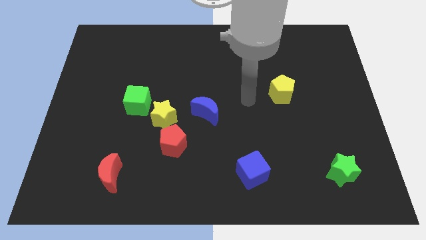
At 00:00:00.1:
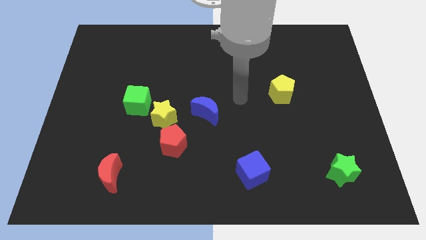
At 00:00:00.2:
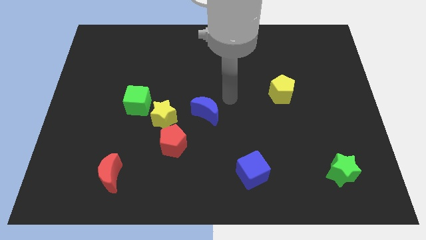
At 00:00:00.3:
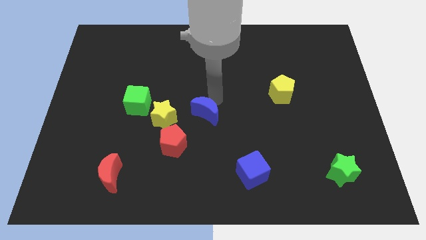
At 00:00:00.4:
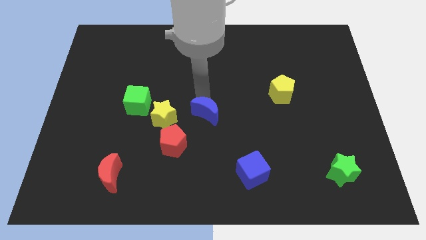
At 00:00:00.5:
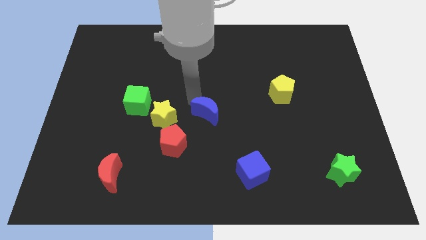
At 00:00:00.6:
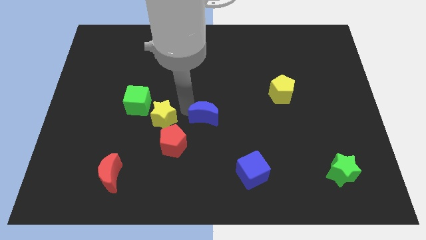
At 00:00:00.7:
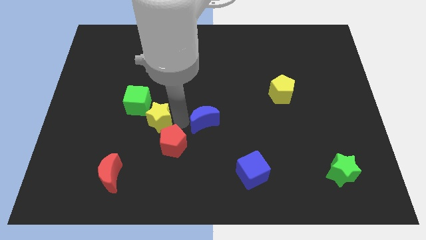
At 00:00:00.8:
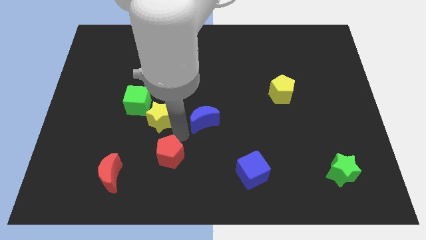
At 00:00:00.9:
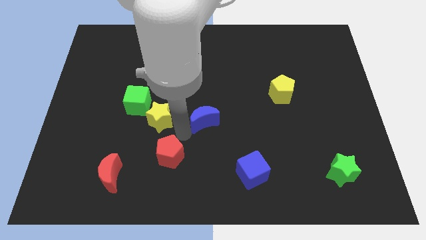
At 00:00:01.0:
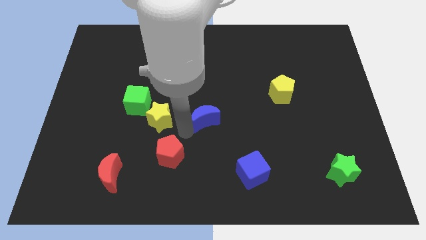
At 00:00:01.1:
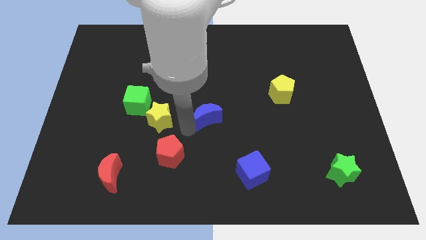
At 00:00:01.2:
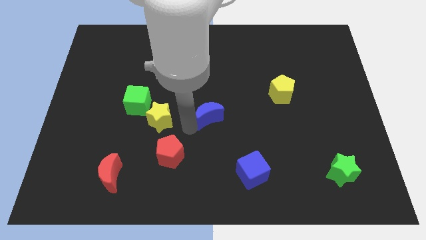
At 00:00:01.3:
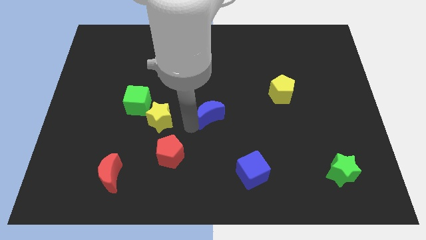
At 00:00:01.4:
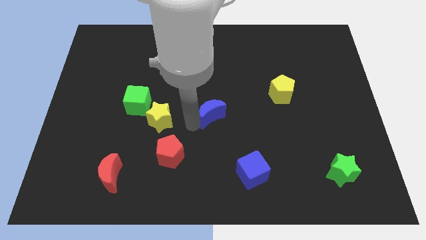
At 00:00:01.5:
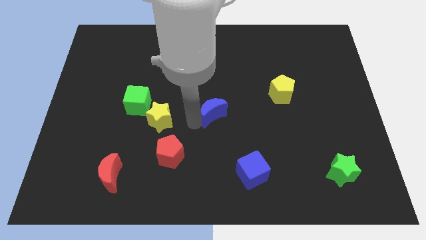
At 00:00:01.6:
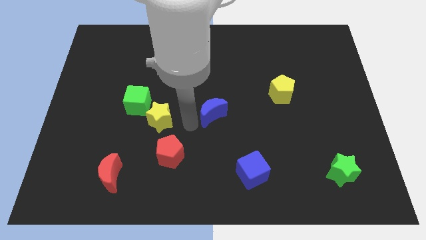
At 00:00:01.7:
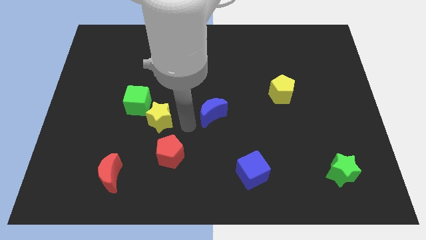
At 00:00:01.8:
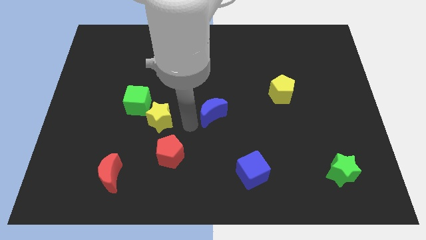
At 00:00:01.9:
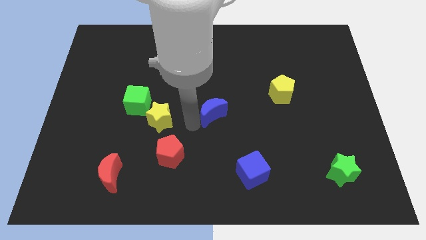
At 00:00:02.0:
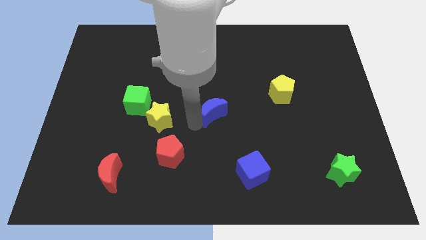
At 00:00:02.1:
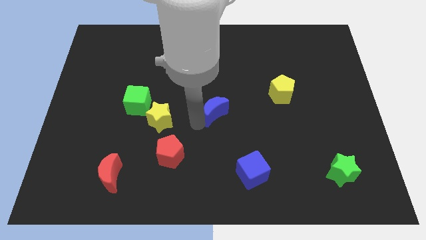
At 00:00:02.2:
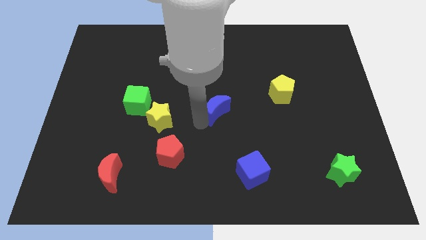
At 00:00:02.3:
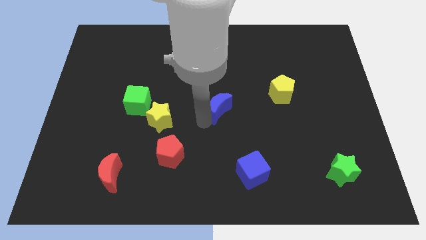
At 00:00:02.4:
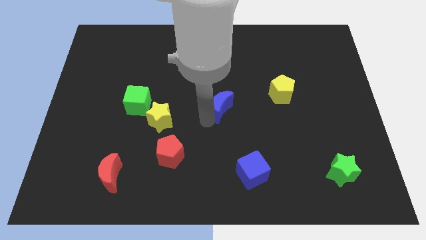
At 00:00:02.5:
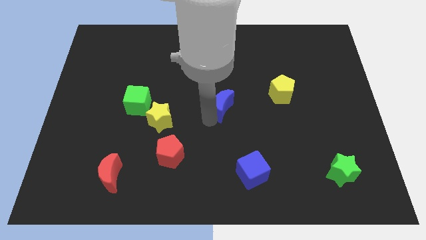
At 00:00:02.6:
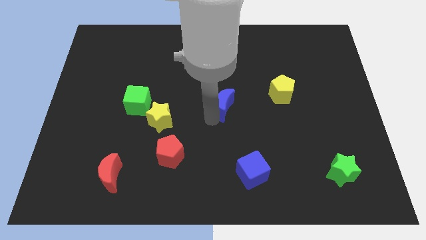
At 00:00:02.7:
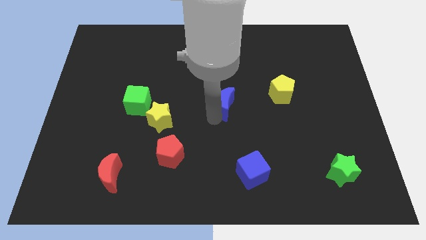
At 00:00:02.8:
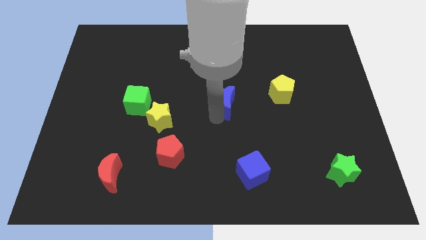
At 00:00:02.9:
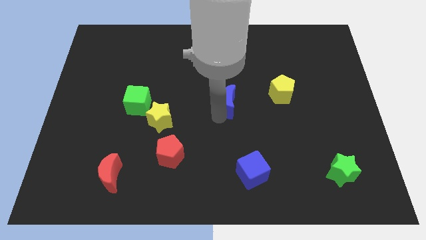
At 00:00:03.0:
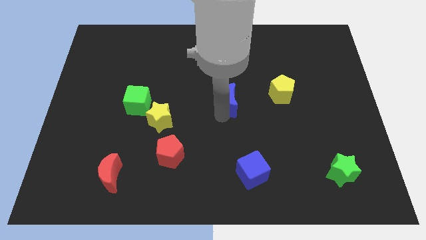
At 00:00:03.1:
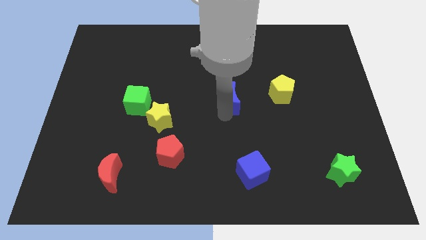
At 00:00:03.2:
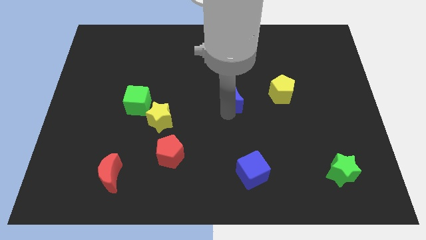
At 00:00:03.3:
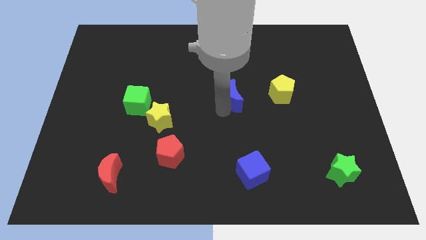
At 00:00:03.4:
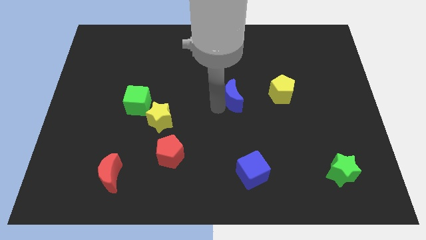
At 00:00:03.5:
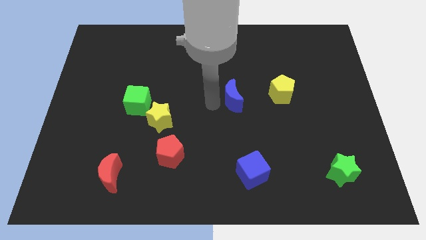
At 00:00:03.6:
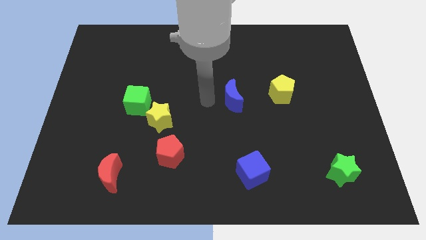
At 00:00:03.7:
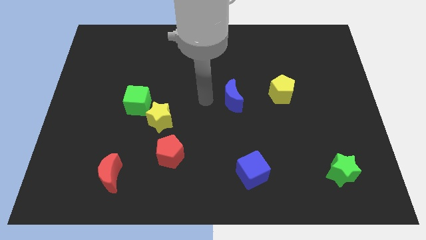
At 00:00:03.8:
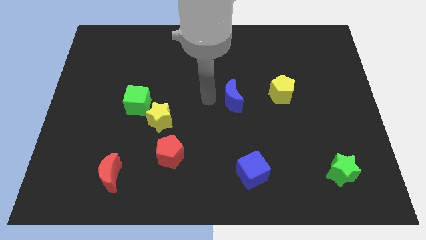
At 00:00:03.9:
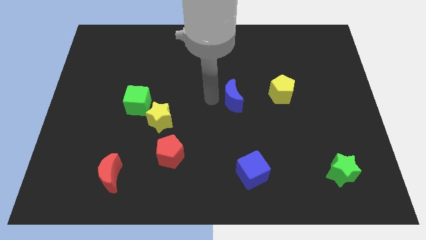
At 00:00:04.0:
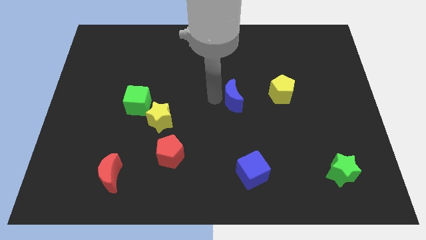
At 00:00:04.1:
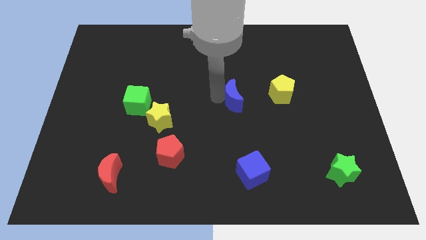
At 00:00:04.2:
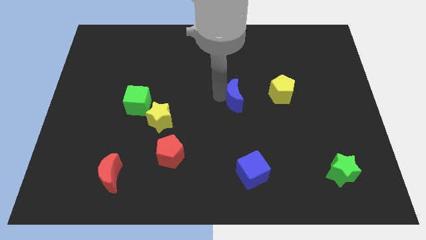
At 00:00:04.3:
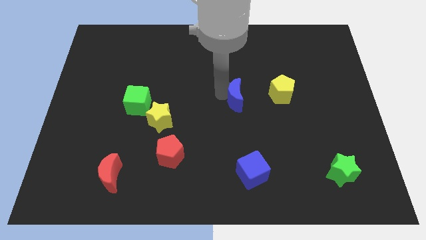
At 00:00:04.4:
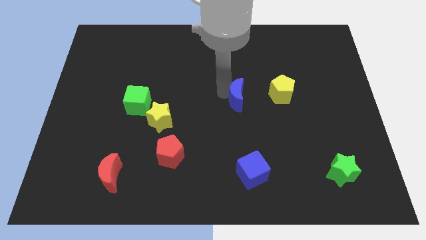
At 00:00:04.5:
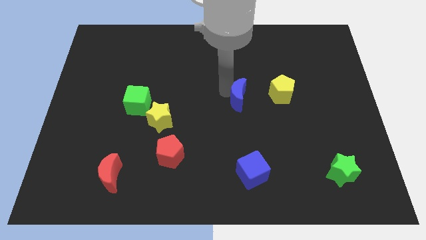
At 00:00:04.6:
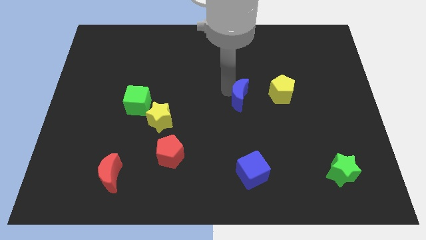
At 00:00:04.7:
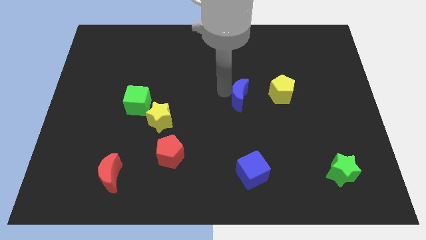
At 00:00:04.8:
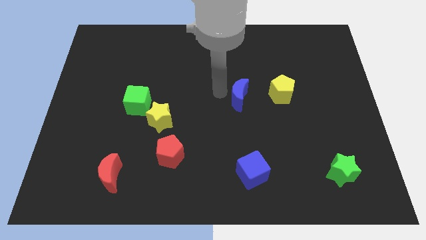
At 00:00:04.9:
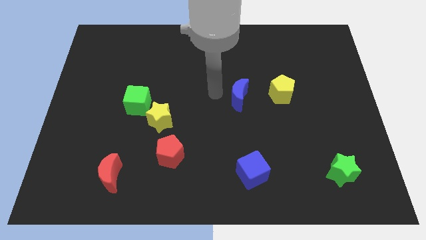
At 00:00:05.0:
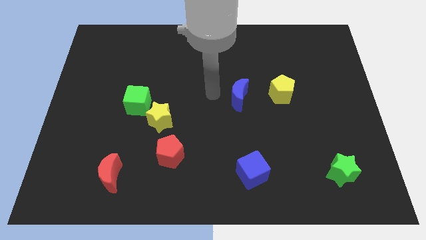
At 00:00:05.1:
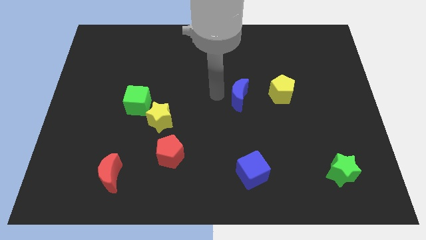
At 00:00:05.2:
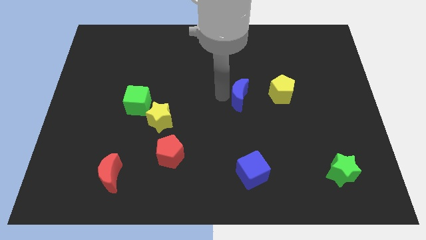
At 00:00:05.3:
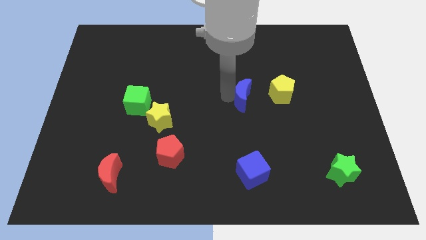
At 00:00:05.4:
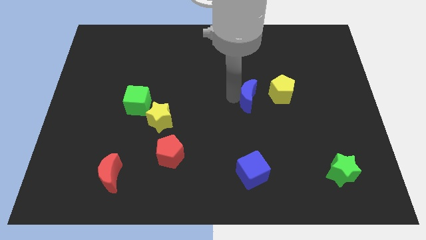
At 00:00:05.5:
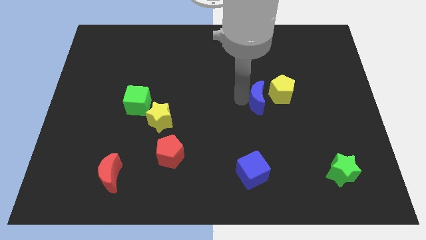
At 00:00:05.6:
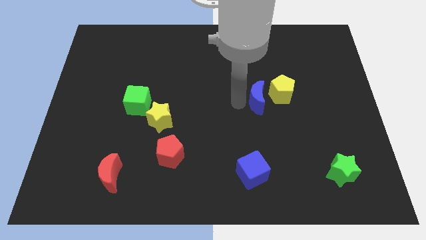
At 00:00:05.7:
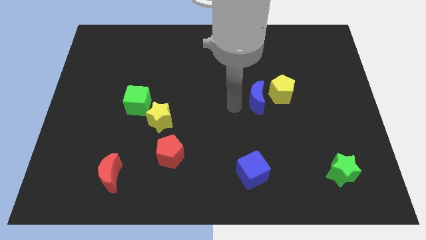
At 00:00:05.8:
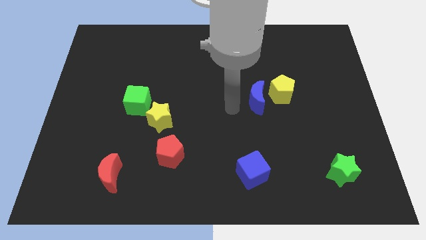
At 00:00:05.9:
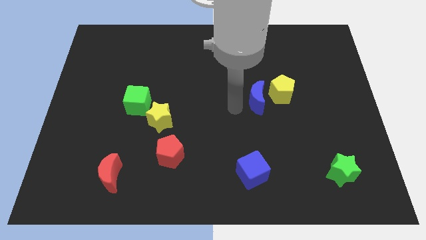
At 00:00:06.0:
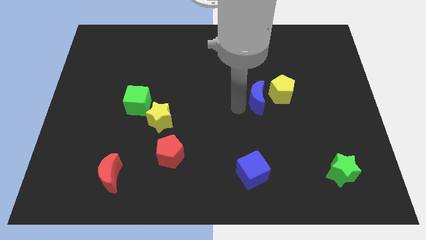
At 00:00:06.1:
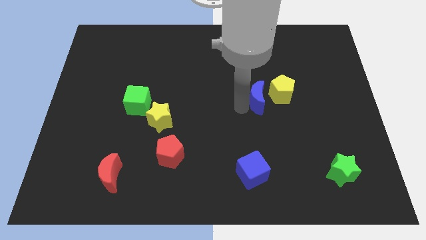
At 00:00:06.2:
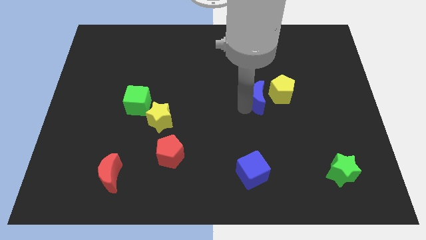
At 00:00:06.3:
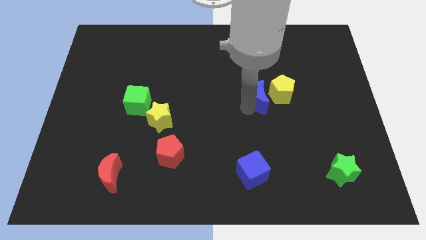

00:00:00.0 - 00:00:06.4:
push the blue moon towards the yellow pentagon

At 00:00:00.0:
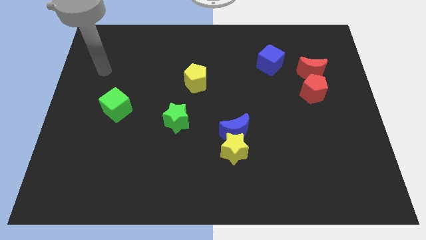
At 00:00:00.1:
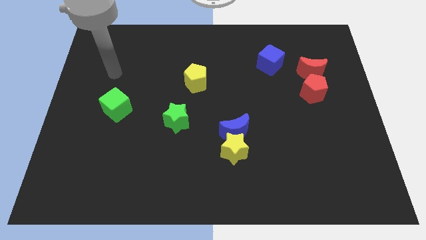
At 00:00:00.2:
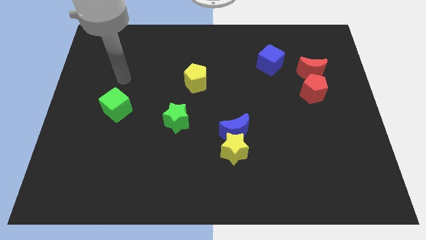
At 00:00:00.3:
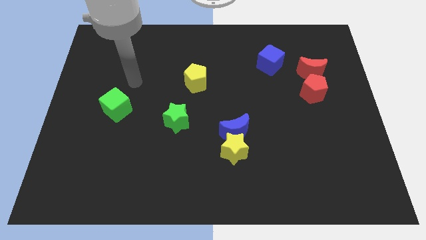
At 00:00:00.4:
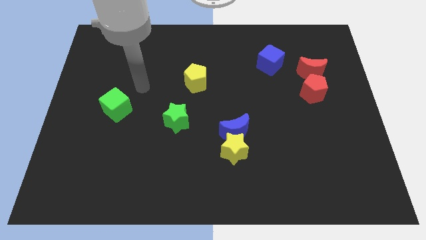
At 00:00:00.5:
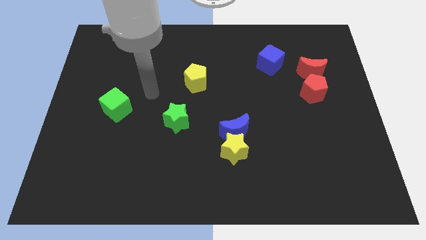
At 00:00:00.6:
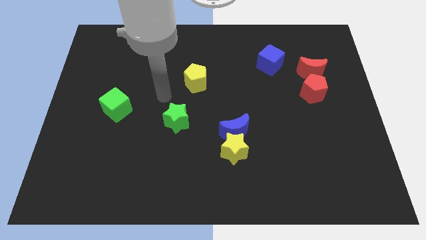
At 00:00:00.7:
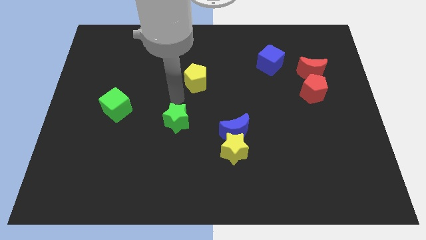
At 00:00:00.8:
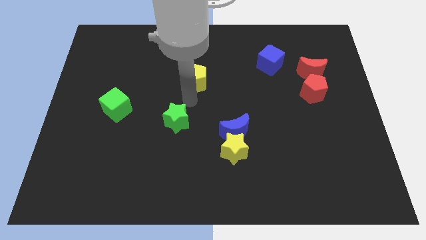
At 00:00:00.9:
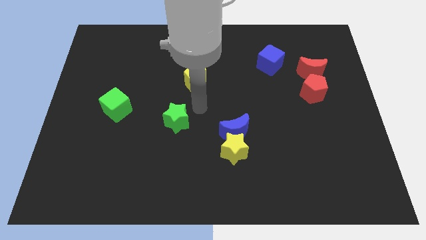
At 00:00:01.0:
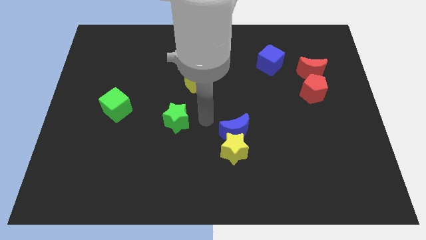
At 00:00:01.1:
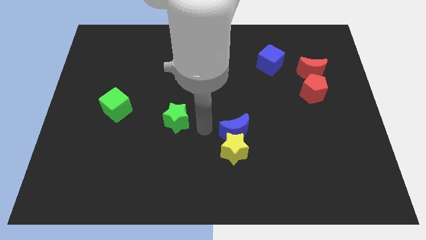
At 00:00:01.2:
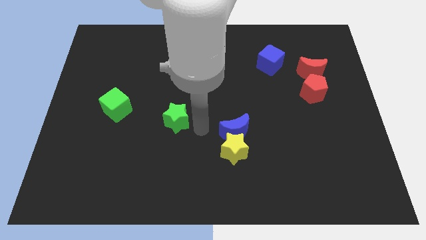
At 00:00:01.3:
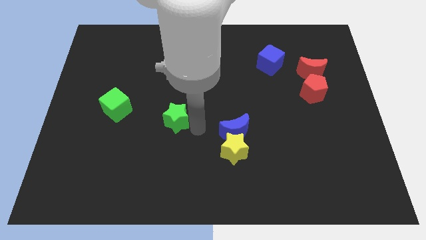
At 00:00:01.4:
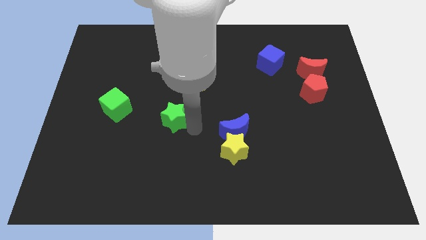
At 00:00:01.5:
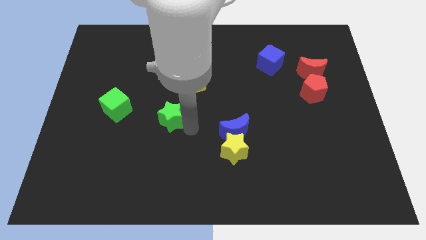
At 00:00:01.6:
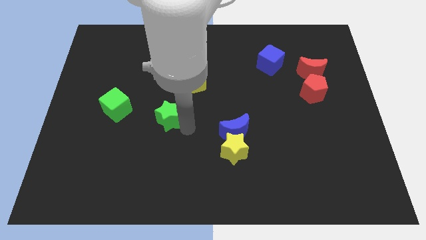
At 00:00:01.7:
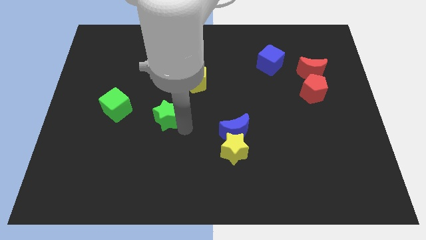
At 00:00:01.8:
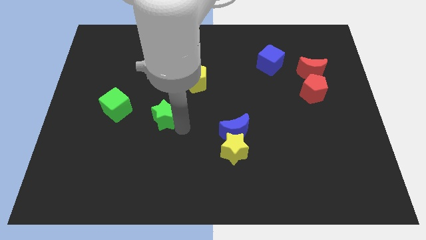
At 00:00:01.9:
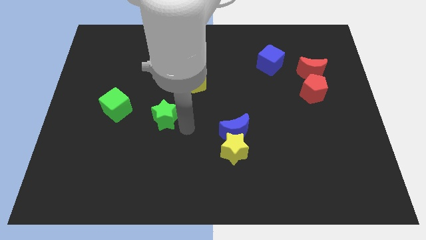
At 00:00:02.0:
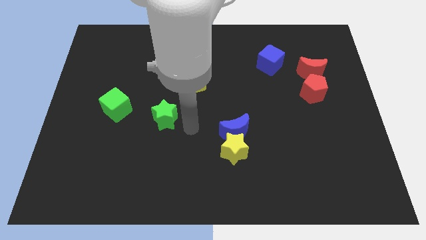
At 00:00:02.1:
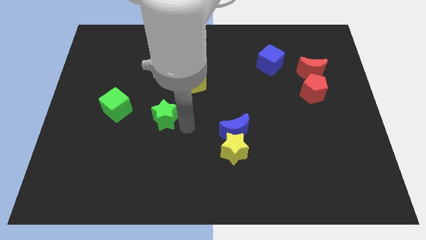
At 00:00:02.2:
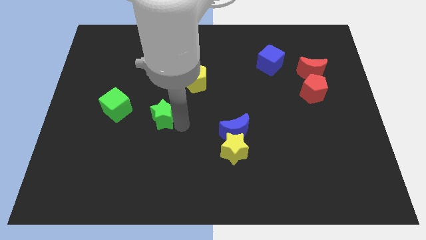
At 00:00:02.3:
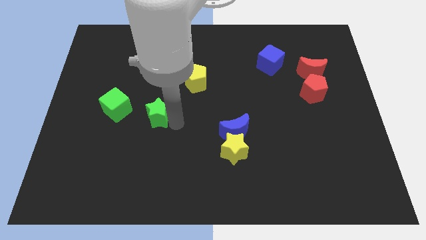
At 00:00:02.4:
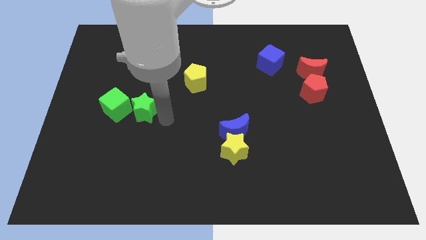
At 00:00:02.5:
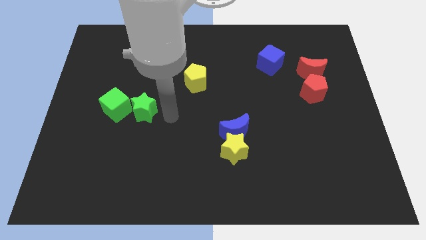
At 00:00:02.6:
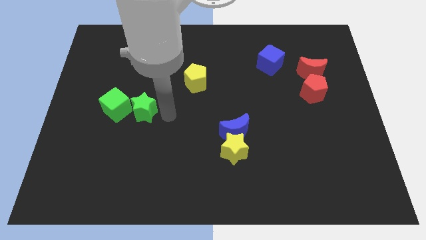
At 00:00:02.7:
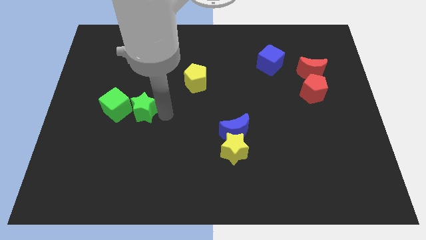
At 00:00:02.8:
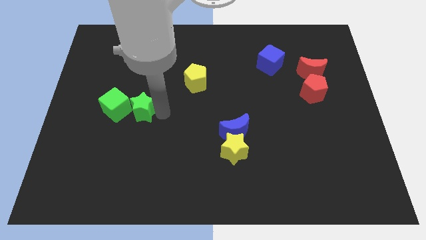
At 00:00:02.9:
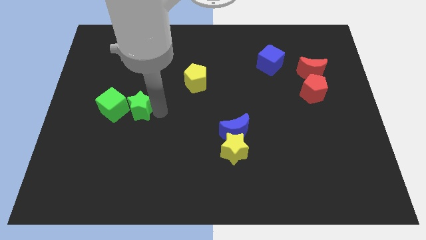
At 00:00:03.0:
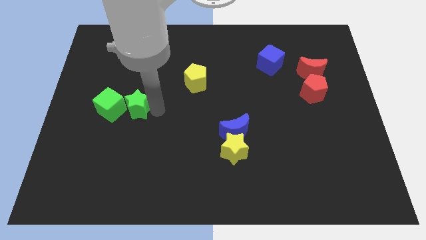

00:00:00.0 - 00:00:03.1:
push the green star next to the green cube
